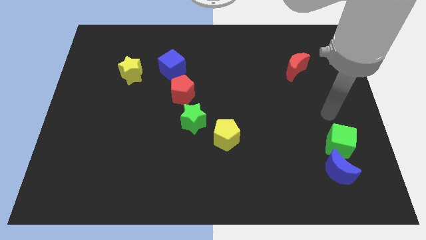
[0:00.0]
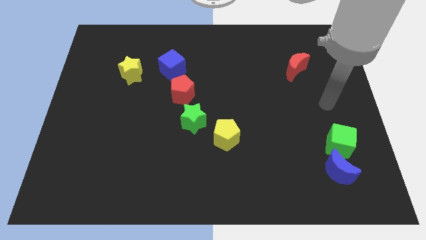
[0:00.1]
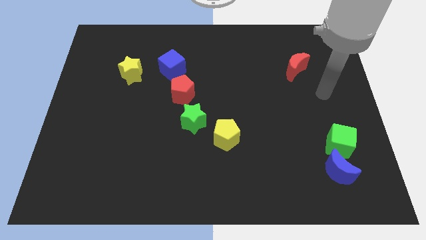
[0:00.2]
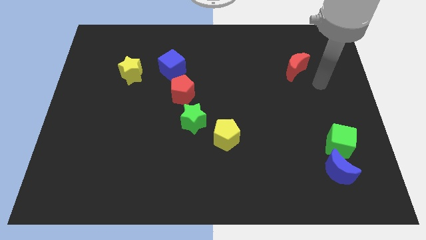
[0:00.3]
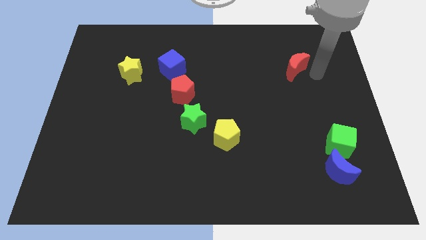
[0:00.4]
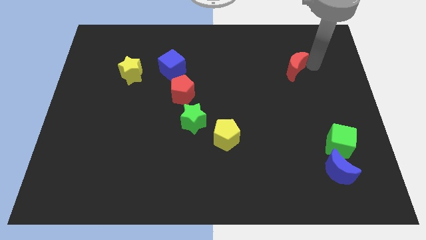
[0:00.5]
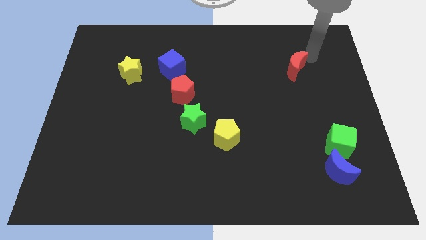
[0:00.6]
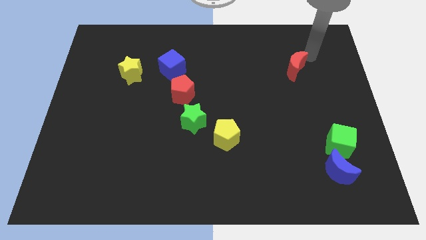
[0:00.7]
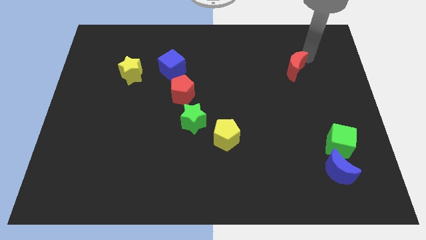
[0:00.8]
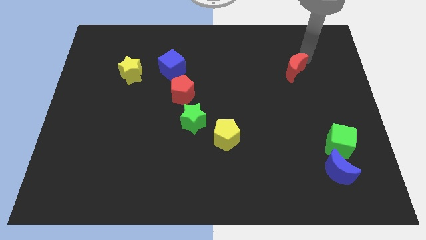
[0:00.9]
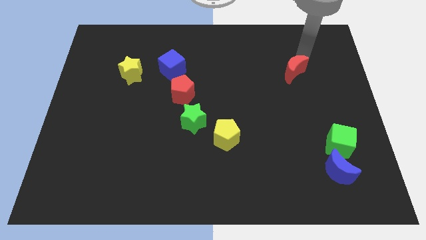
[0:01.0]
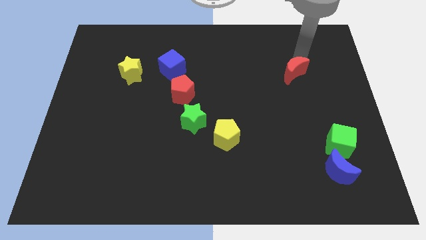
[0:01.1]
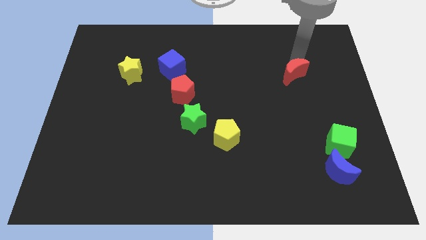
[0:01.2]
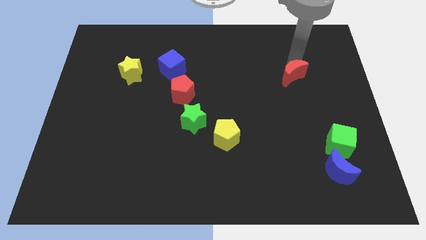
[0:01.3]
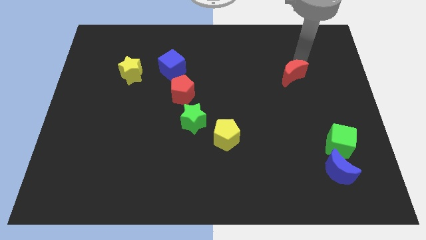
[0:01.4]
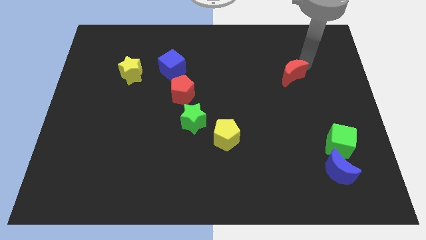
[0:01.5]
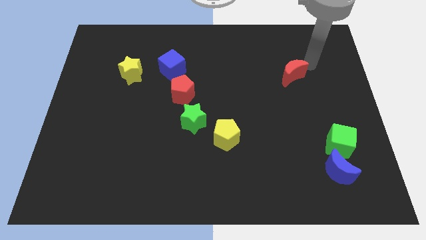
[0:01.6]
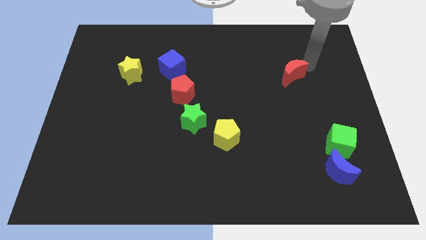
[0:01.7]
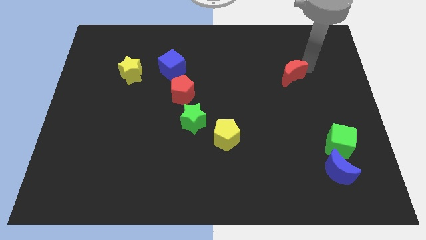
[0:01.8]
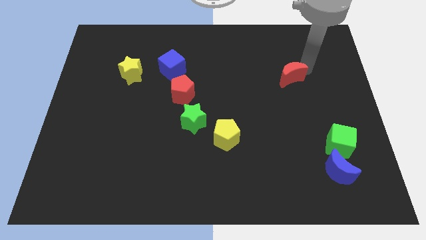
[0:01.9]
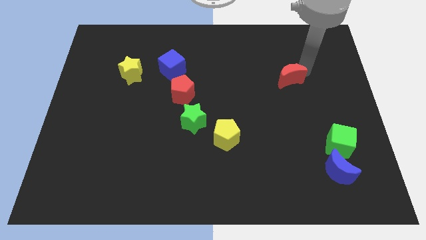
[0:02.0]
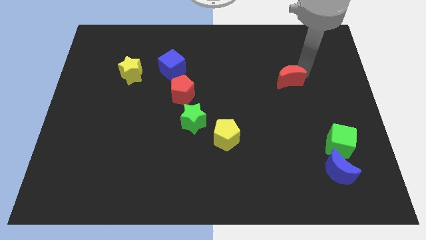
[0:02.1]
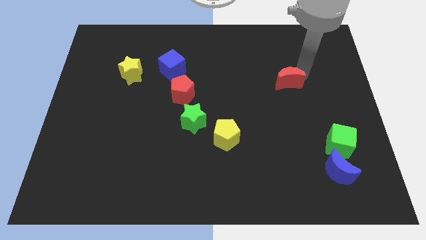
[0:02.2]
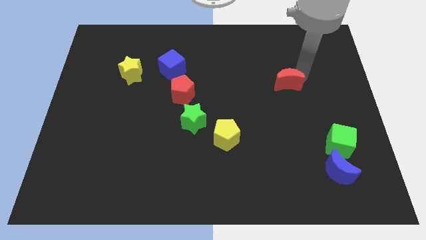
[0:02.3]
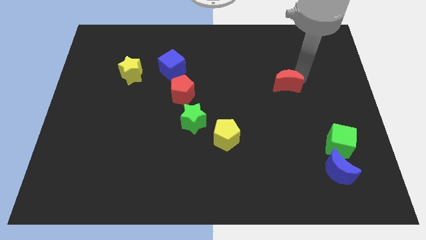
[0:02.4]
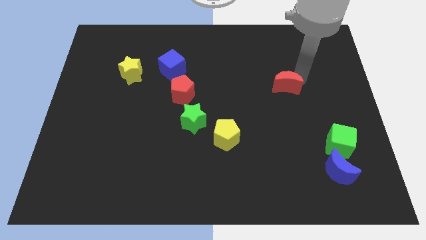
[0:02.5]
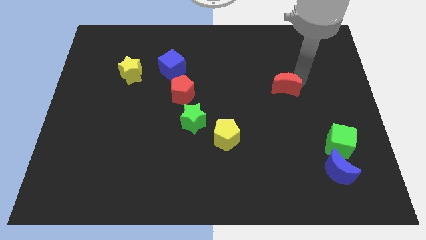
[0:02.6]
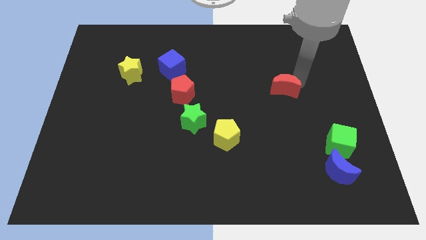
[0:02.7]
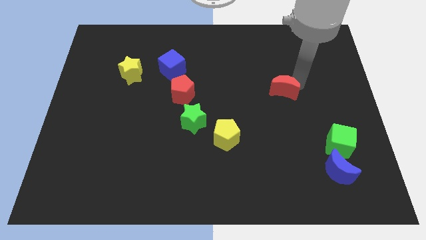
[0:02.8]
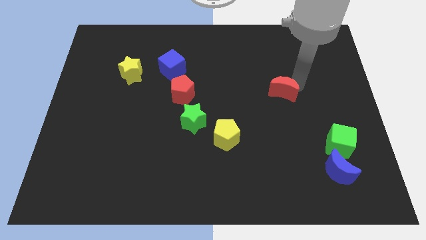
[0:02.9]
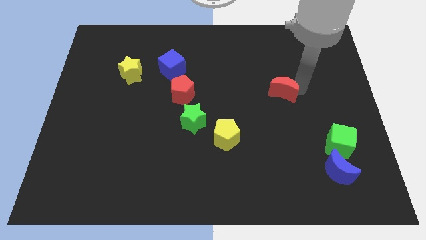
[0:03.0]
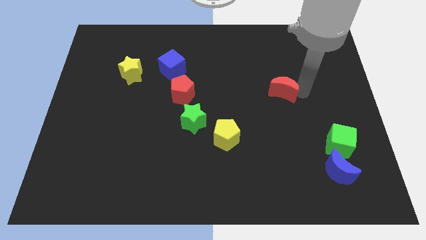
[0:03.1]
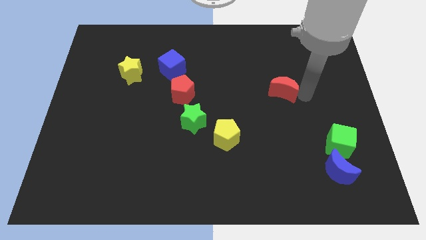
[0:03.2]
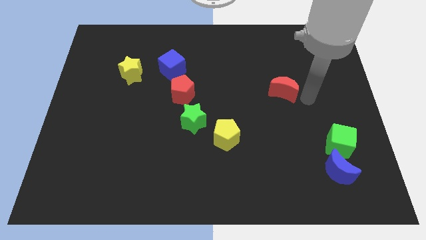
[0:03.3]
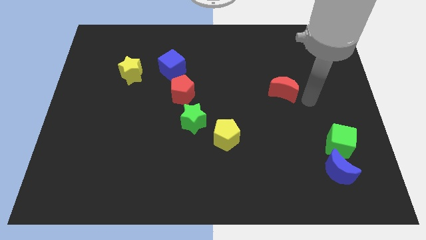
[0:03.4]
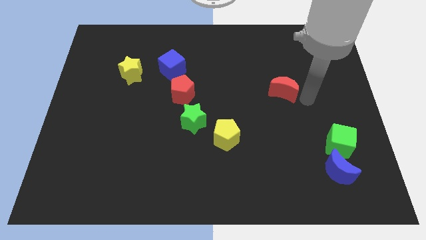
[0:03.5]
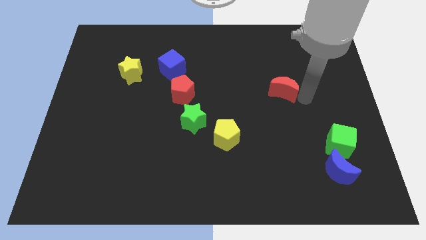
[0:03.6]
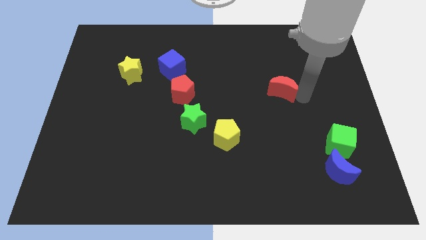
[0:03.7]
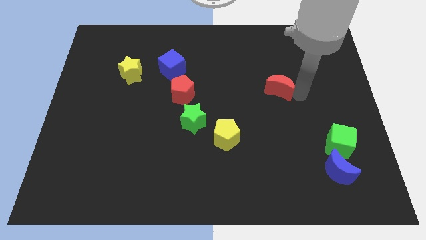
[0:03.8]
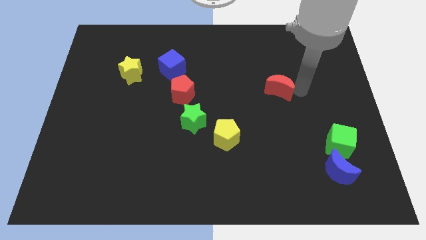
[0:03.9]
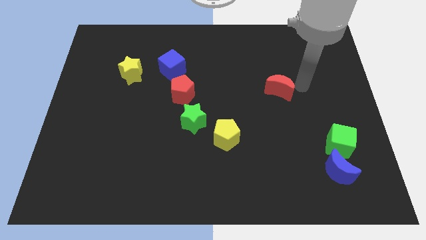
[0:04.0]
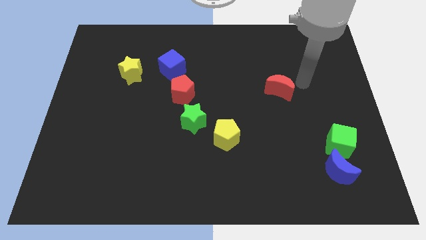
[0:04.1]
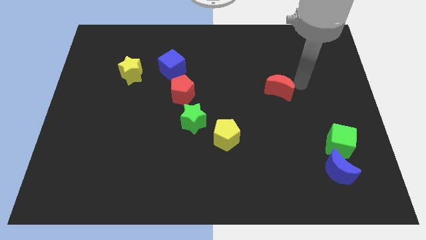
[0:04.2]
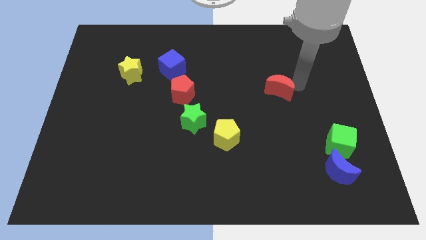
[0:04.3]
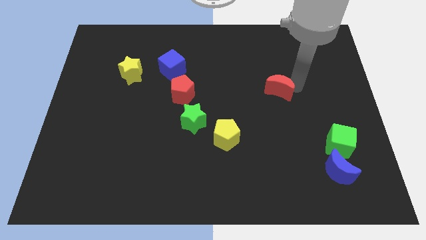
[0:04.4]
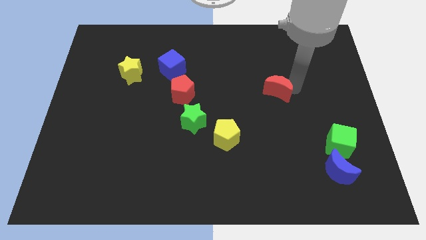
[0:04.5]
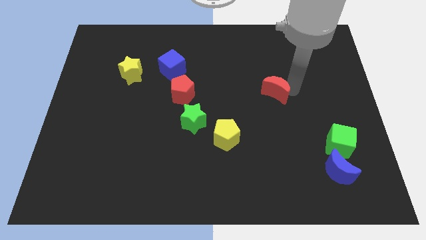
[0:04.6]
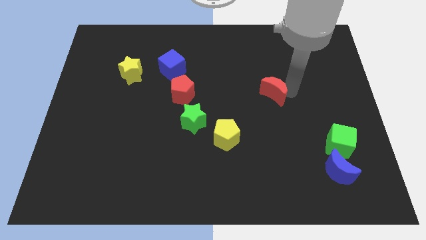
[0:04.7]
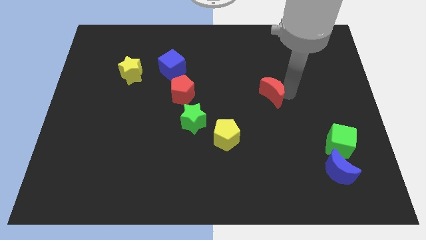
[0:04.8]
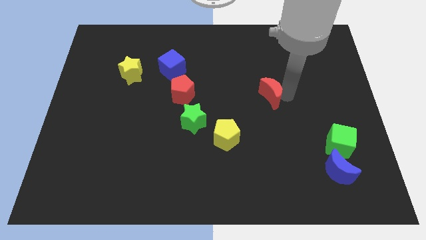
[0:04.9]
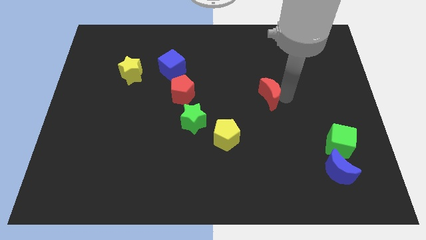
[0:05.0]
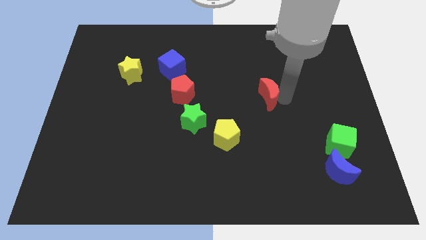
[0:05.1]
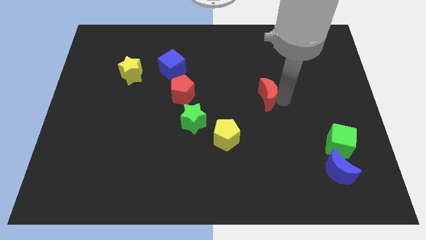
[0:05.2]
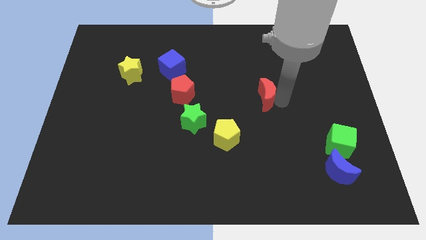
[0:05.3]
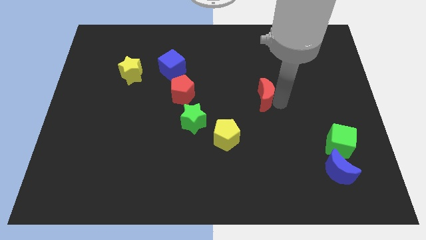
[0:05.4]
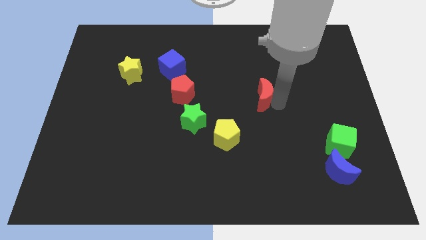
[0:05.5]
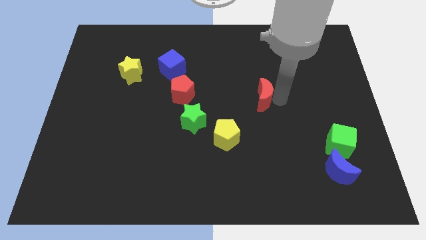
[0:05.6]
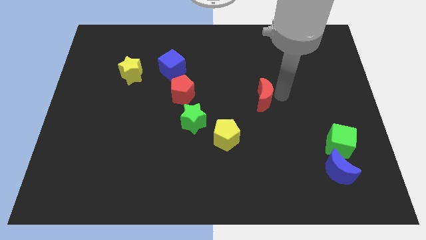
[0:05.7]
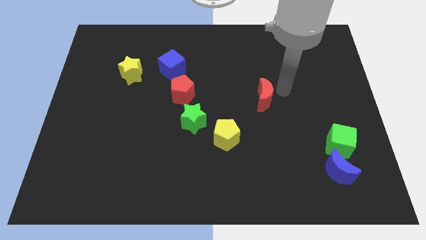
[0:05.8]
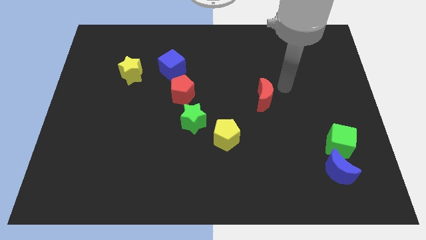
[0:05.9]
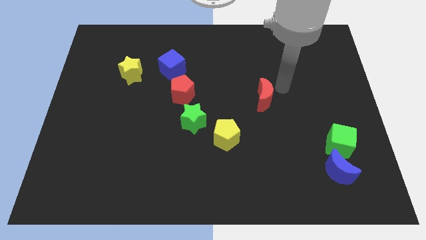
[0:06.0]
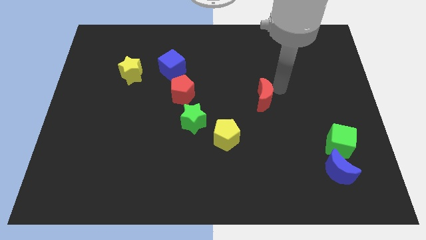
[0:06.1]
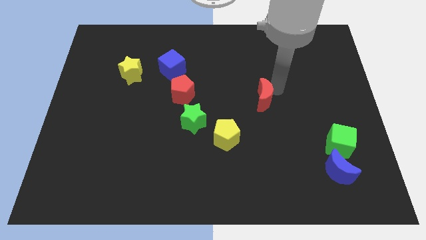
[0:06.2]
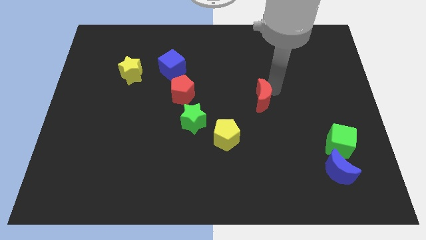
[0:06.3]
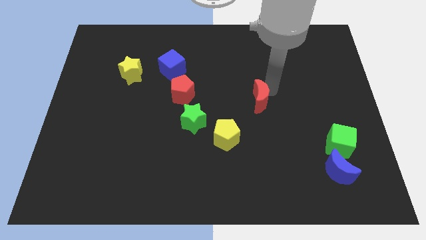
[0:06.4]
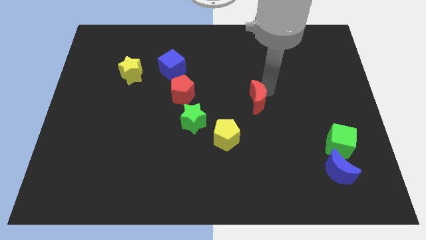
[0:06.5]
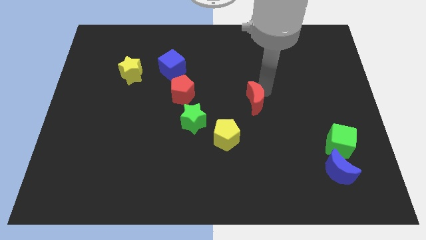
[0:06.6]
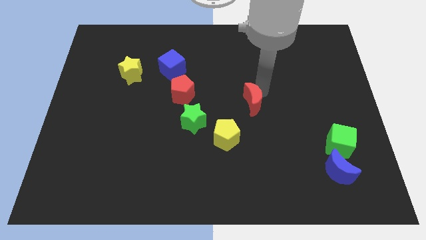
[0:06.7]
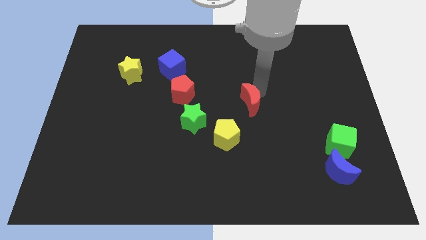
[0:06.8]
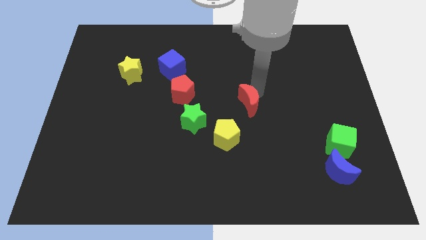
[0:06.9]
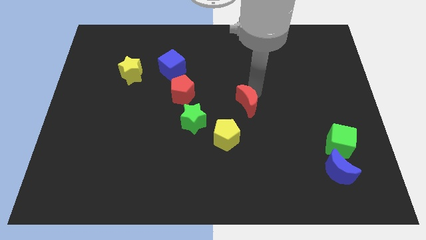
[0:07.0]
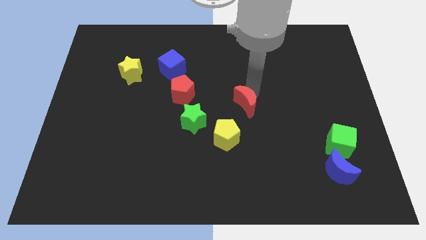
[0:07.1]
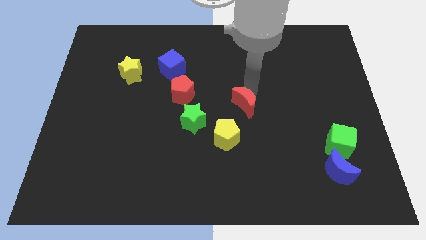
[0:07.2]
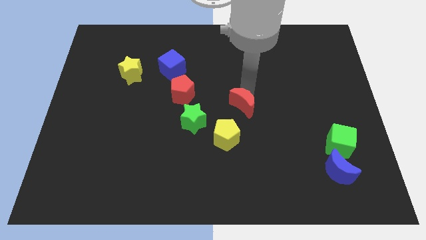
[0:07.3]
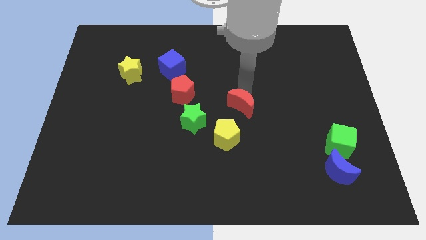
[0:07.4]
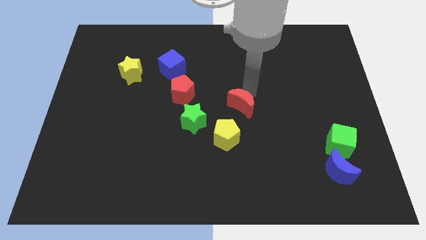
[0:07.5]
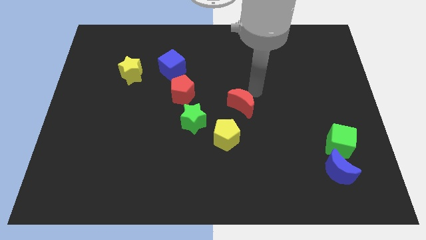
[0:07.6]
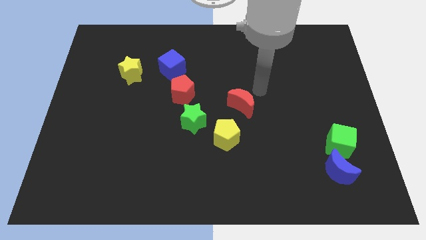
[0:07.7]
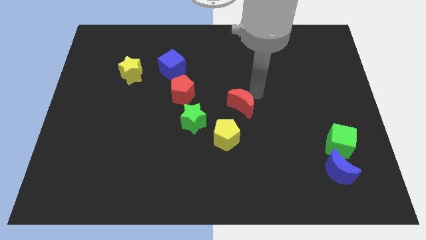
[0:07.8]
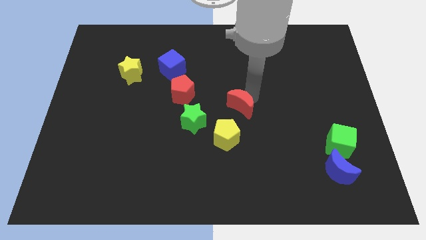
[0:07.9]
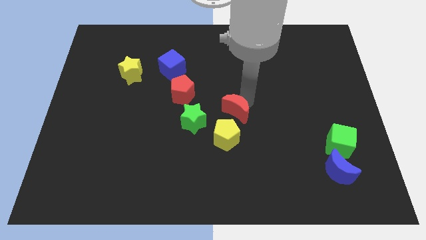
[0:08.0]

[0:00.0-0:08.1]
move the red moon diagonally down and left
